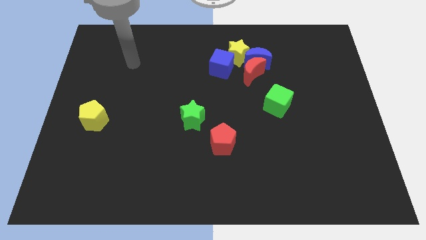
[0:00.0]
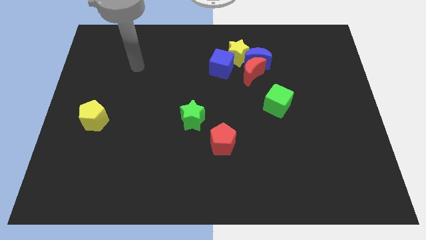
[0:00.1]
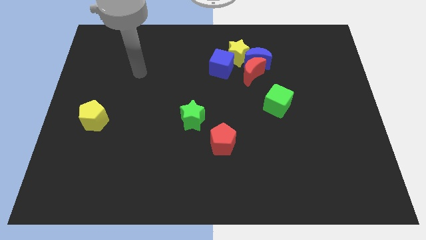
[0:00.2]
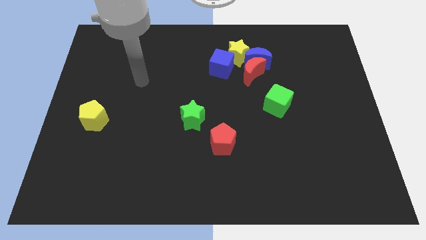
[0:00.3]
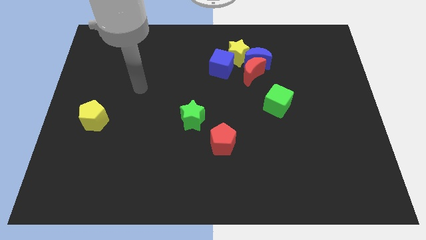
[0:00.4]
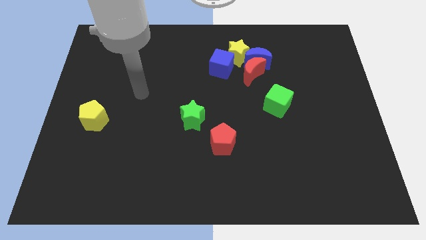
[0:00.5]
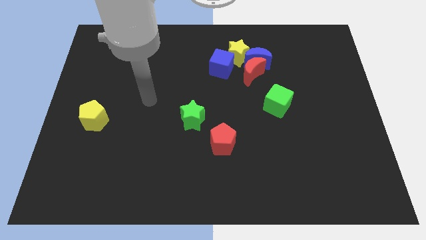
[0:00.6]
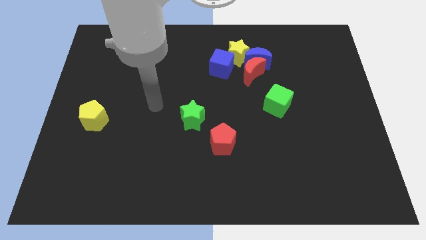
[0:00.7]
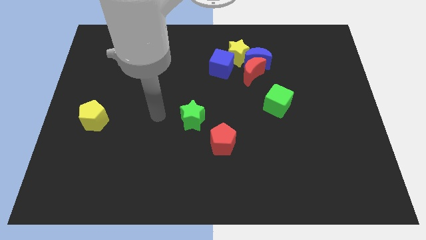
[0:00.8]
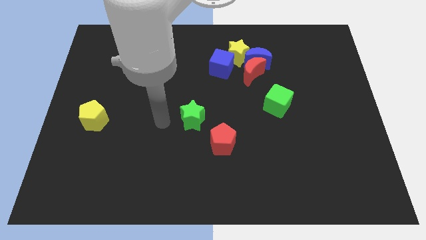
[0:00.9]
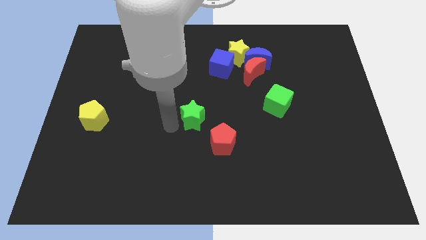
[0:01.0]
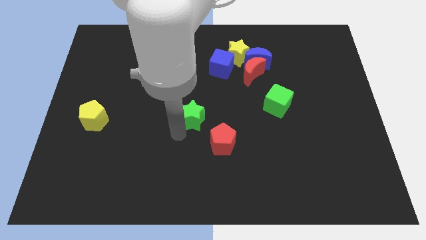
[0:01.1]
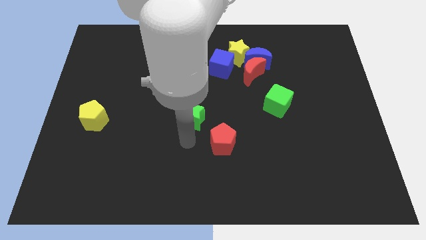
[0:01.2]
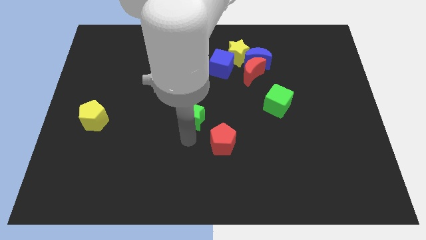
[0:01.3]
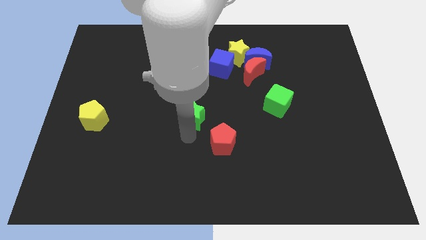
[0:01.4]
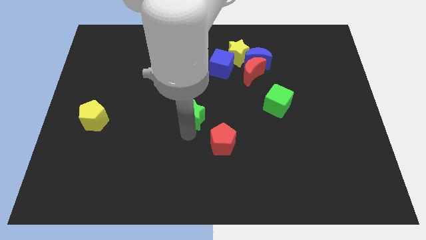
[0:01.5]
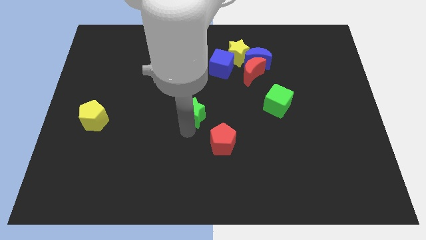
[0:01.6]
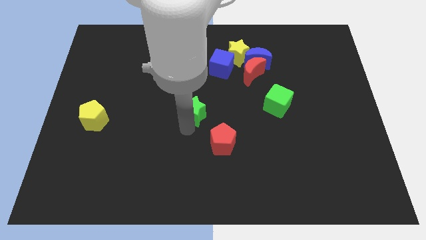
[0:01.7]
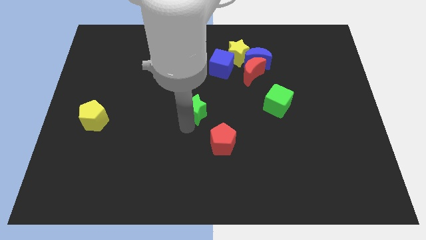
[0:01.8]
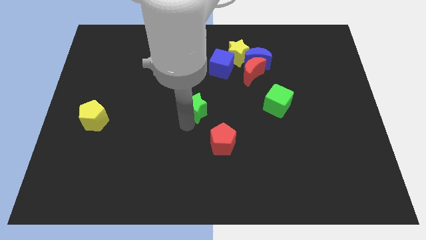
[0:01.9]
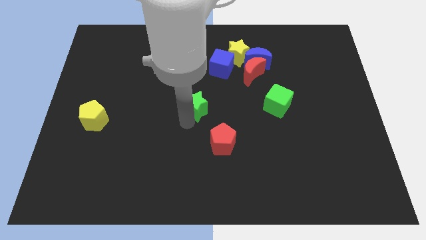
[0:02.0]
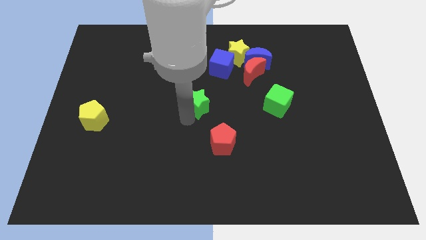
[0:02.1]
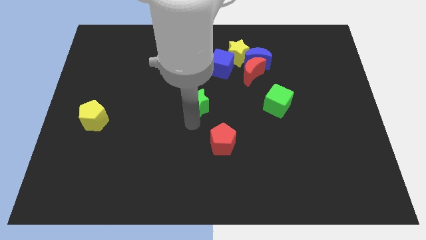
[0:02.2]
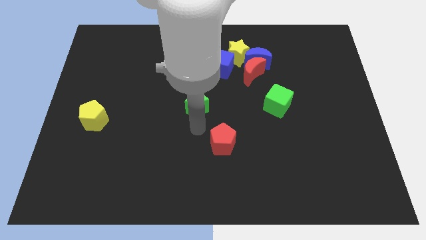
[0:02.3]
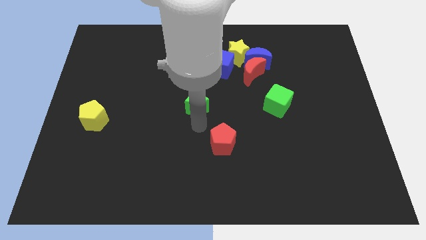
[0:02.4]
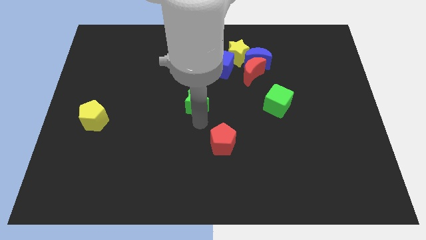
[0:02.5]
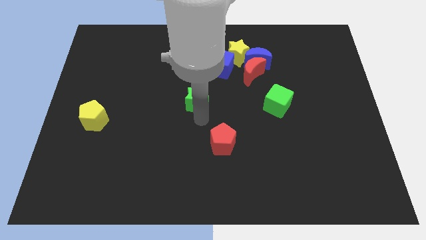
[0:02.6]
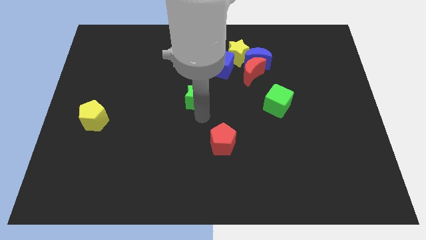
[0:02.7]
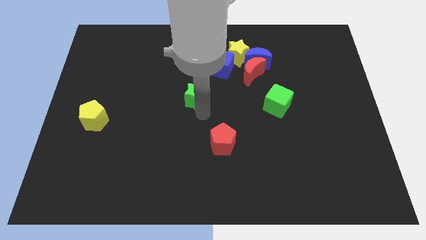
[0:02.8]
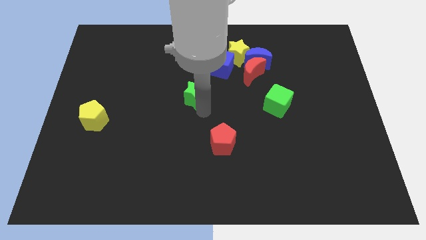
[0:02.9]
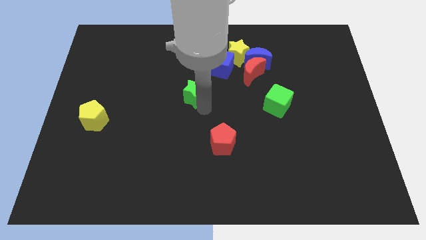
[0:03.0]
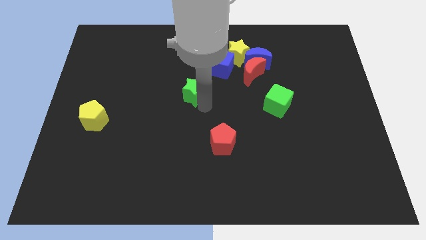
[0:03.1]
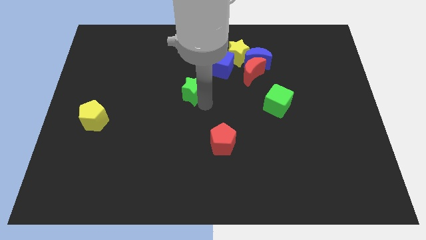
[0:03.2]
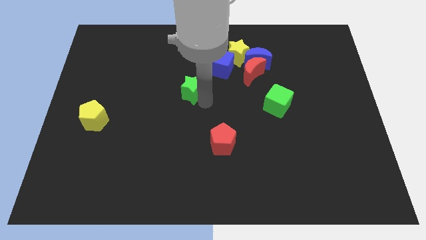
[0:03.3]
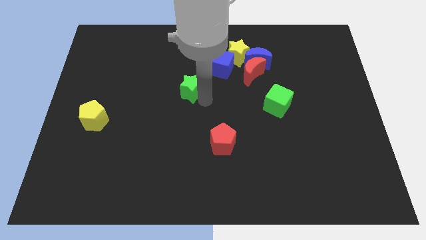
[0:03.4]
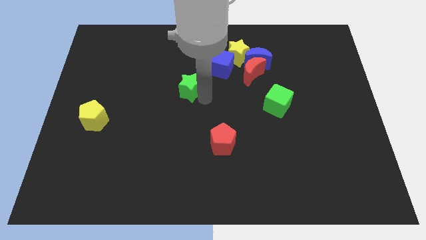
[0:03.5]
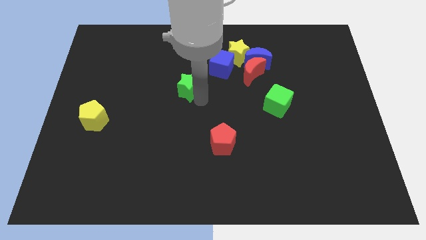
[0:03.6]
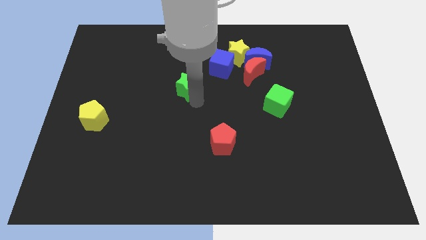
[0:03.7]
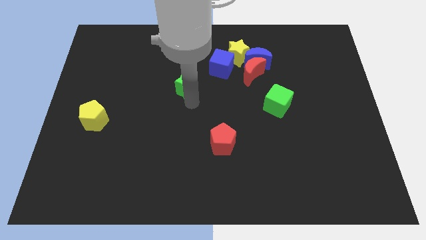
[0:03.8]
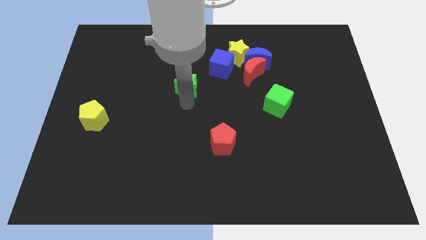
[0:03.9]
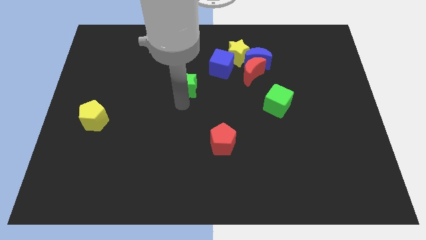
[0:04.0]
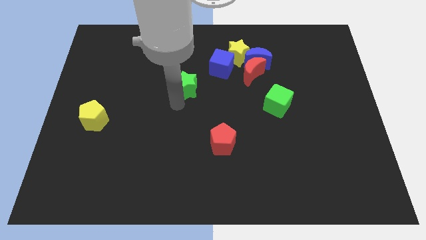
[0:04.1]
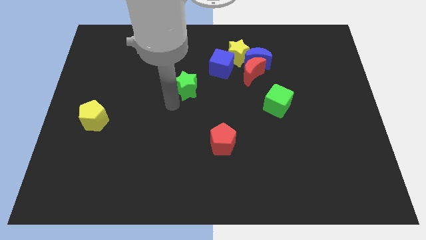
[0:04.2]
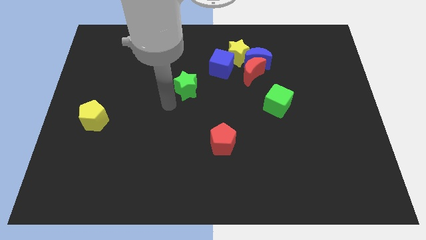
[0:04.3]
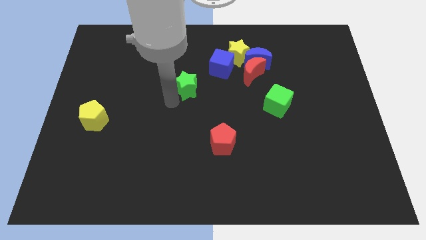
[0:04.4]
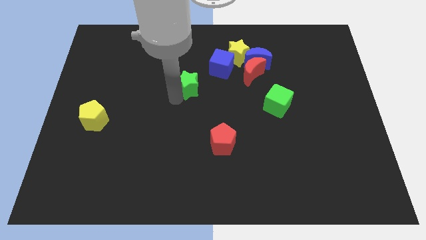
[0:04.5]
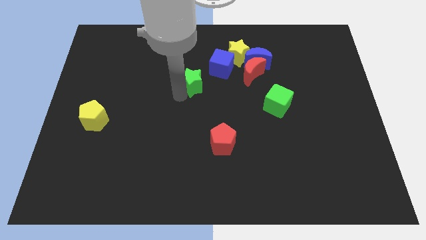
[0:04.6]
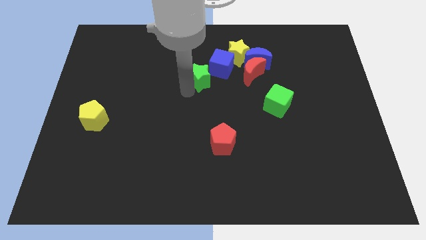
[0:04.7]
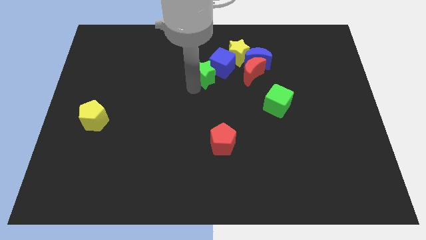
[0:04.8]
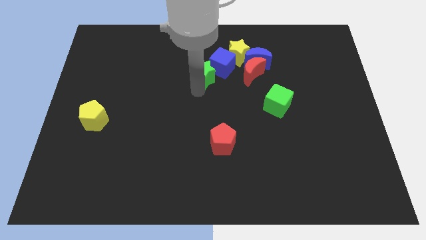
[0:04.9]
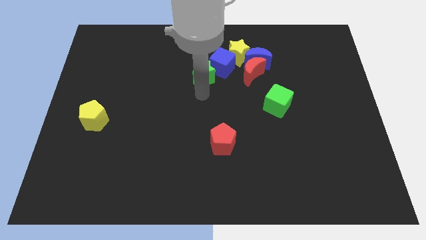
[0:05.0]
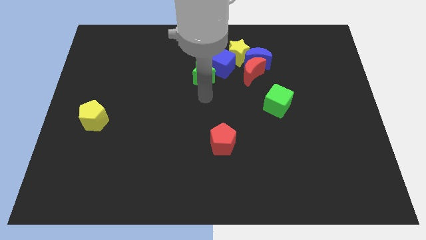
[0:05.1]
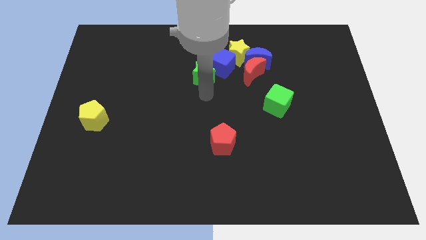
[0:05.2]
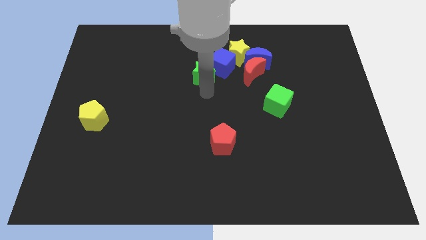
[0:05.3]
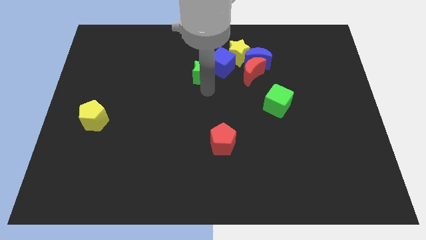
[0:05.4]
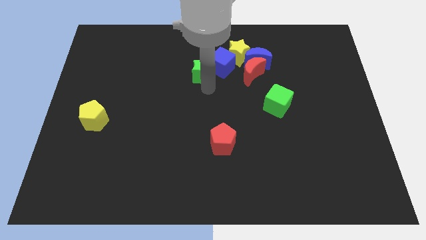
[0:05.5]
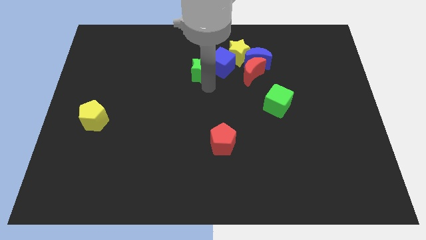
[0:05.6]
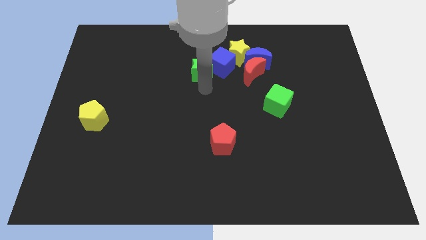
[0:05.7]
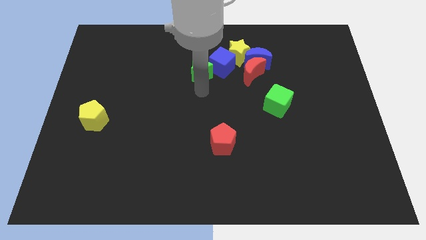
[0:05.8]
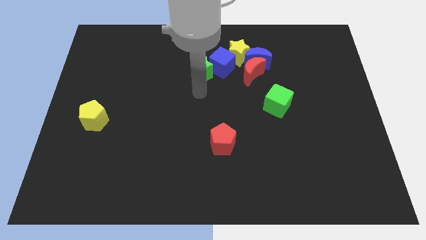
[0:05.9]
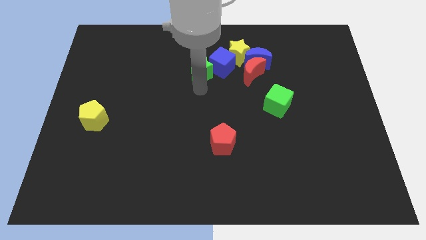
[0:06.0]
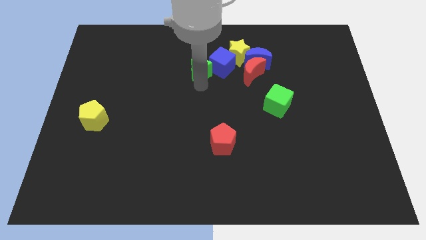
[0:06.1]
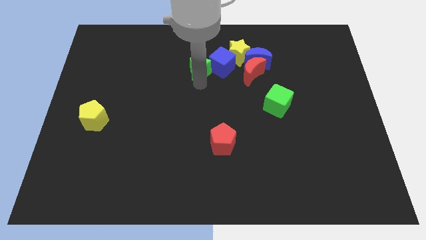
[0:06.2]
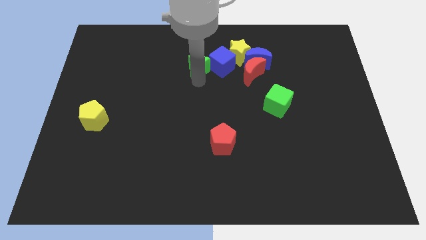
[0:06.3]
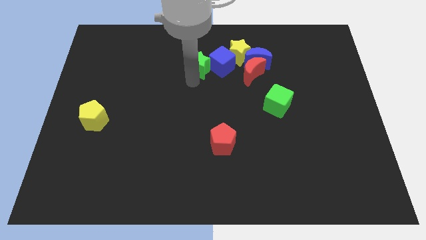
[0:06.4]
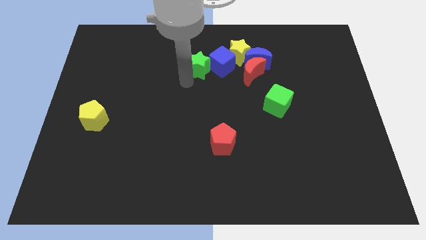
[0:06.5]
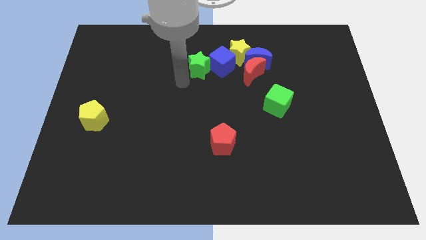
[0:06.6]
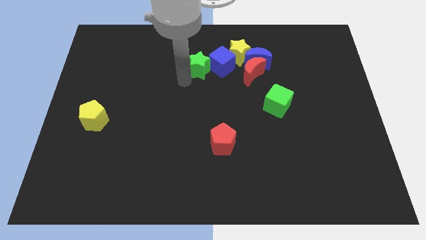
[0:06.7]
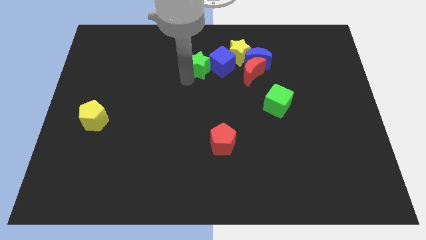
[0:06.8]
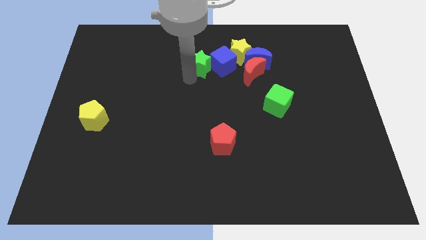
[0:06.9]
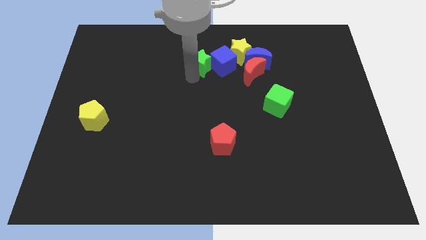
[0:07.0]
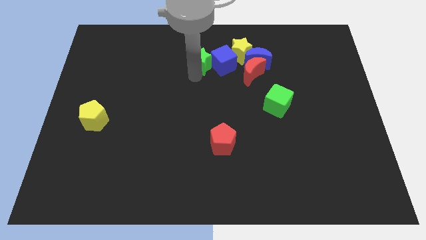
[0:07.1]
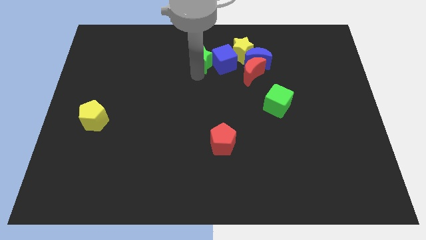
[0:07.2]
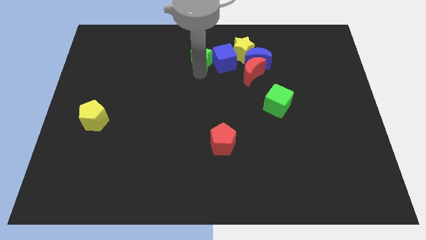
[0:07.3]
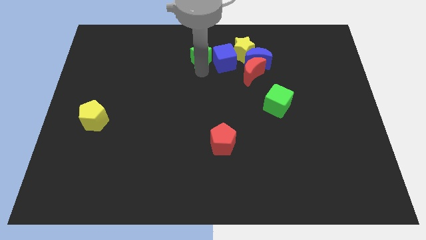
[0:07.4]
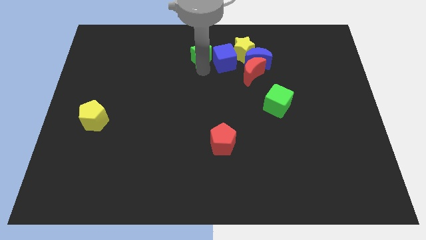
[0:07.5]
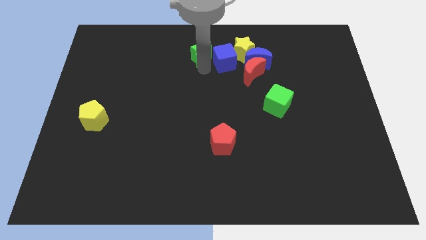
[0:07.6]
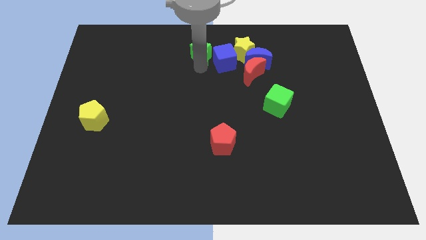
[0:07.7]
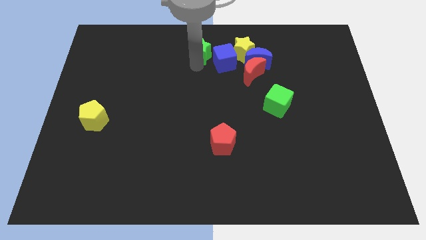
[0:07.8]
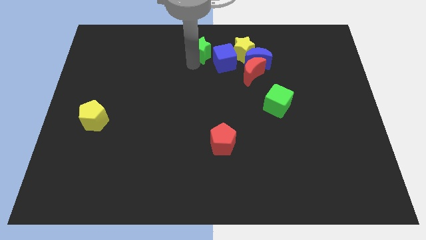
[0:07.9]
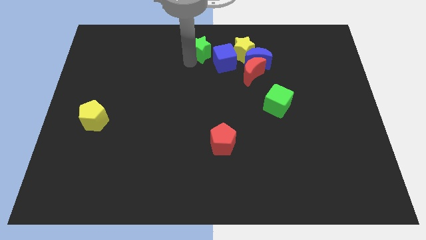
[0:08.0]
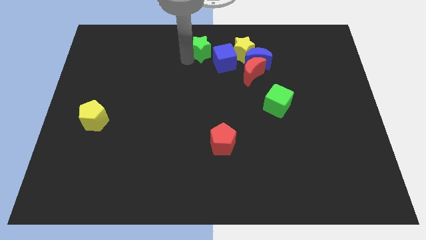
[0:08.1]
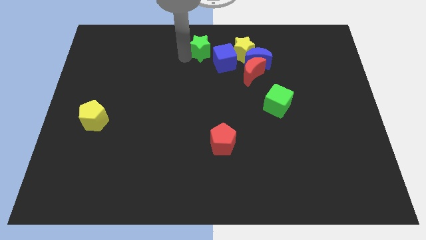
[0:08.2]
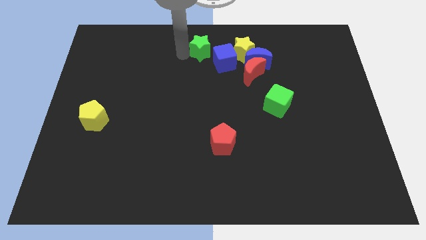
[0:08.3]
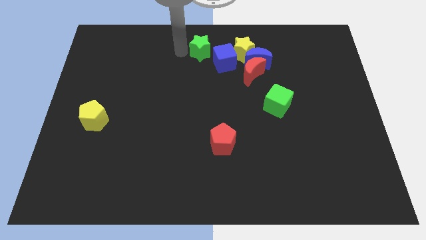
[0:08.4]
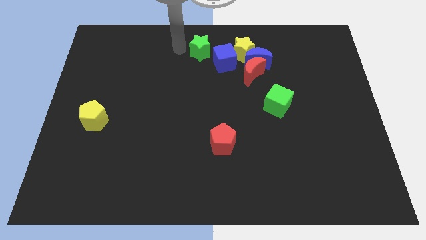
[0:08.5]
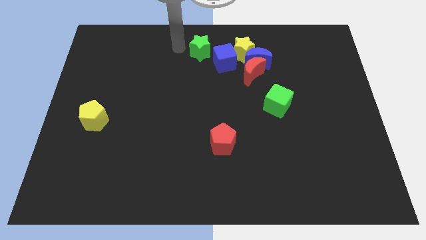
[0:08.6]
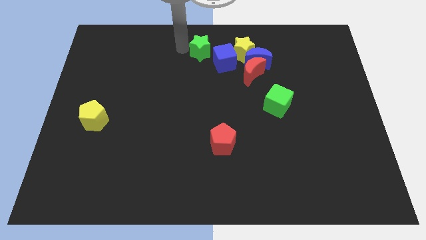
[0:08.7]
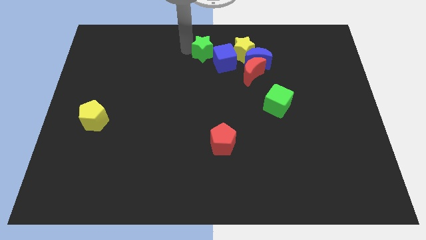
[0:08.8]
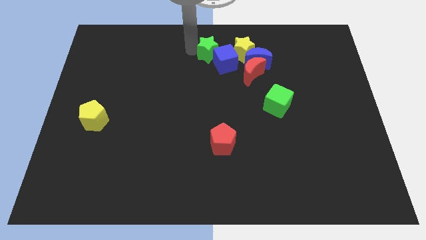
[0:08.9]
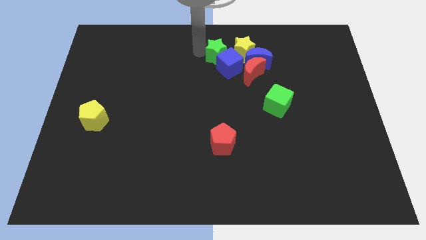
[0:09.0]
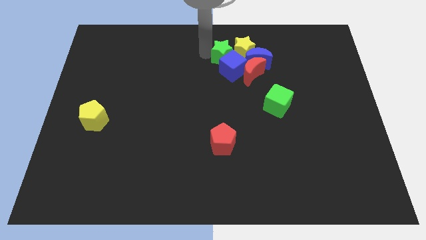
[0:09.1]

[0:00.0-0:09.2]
move the green star towards the yellow star

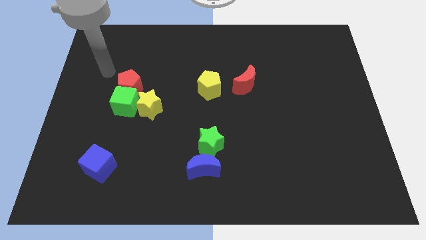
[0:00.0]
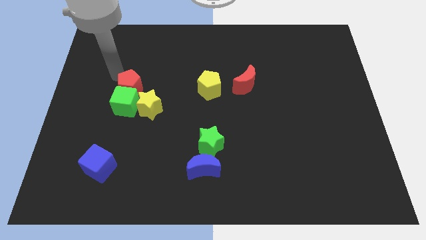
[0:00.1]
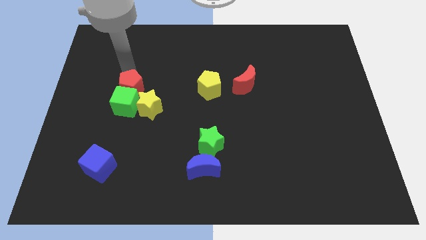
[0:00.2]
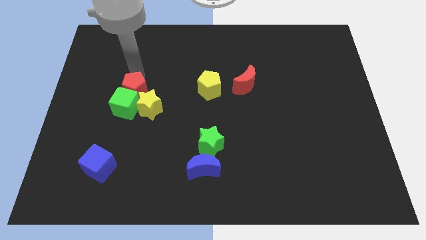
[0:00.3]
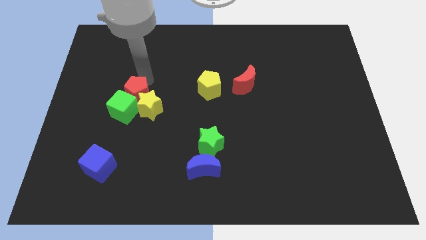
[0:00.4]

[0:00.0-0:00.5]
slide the yellow star next to the red pentagon
